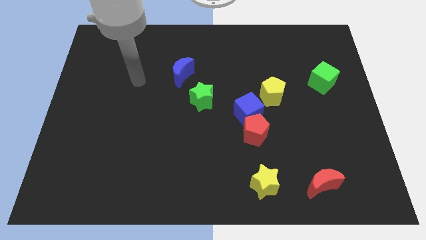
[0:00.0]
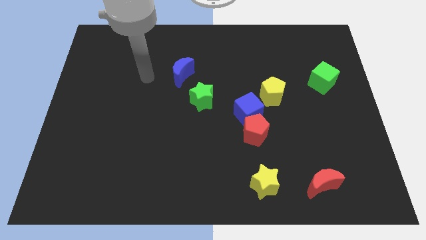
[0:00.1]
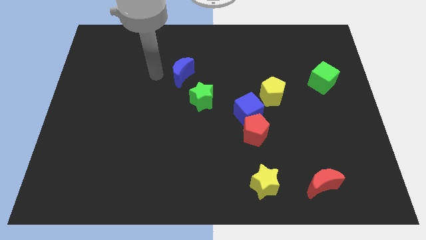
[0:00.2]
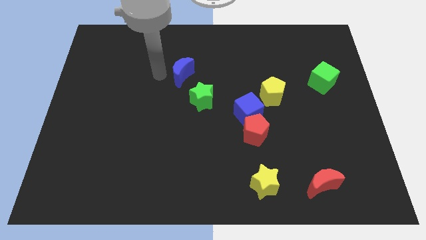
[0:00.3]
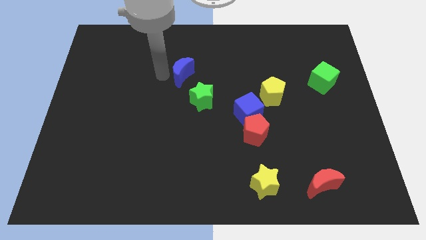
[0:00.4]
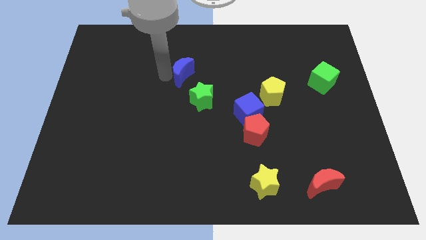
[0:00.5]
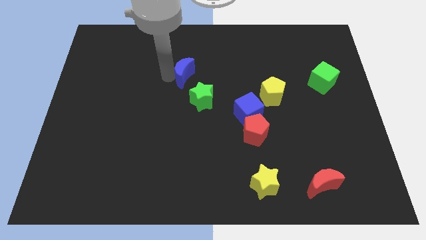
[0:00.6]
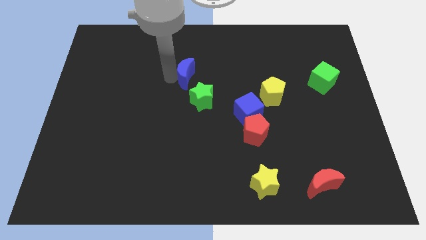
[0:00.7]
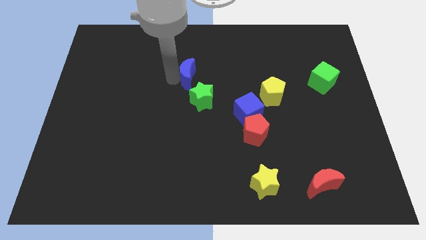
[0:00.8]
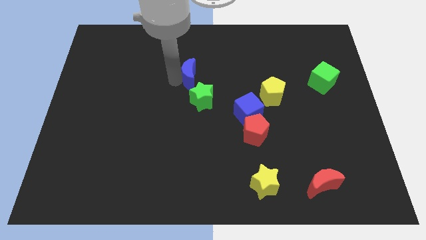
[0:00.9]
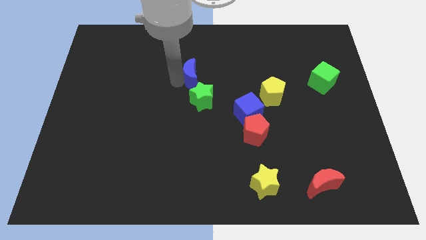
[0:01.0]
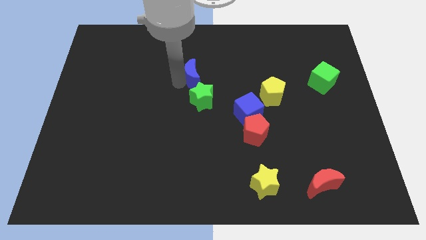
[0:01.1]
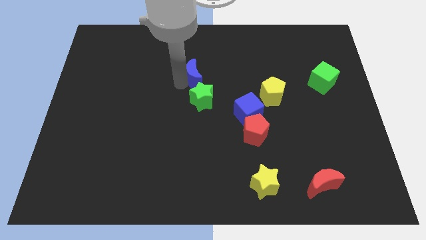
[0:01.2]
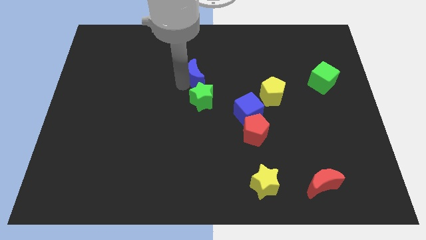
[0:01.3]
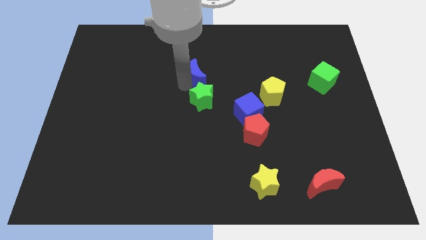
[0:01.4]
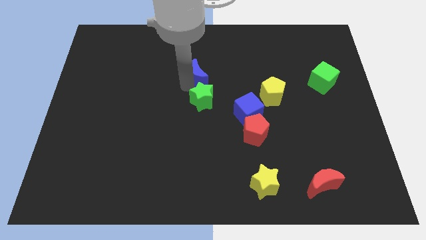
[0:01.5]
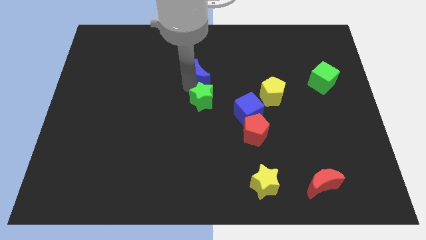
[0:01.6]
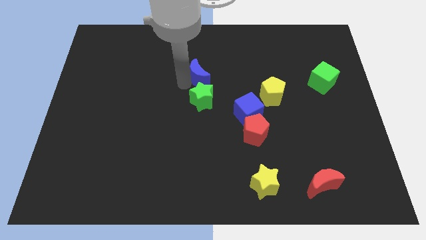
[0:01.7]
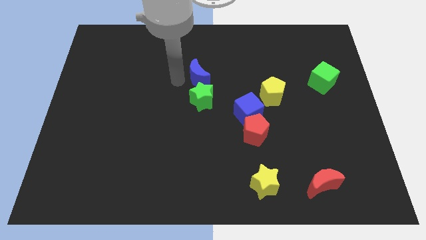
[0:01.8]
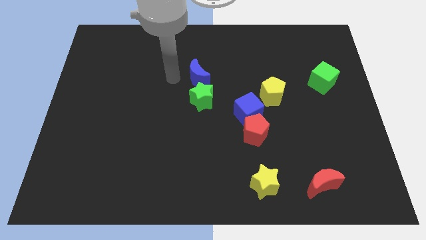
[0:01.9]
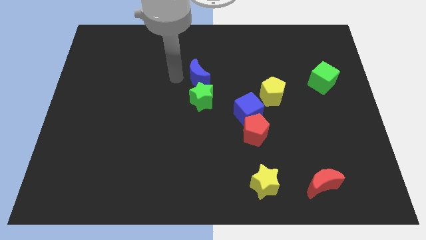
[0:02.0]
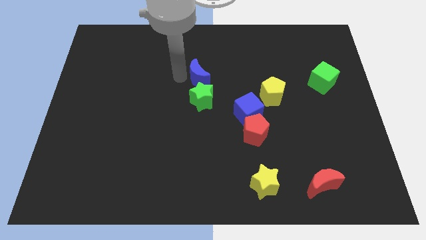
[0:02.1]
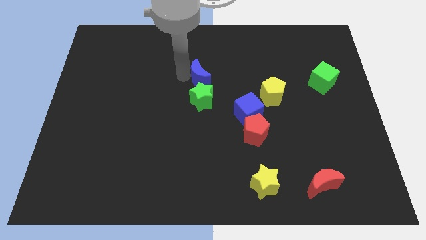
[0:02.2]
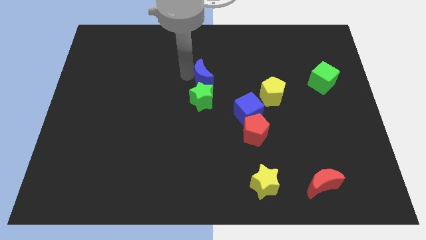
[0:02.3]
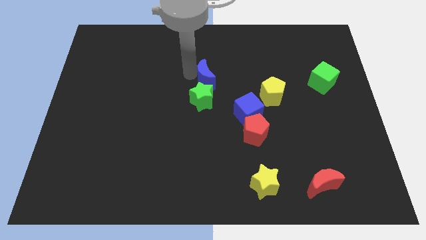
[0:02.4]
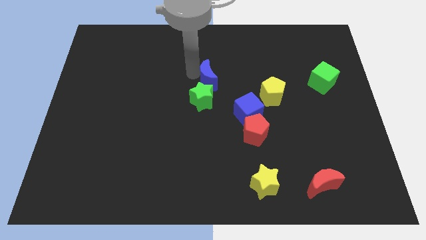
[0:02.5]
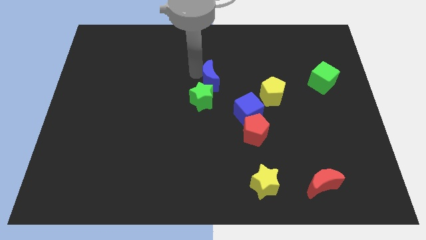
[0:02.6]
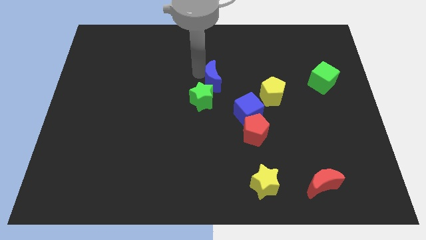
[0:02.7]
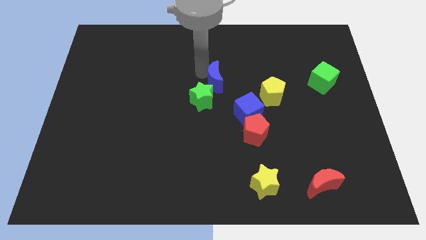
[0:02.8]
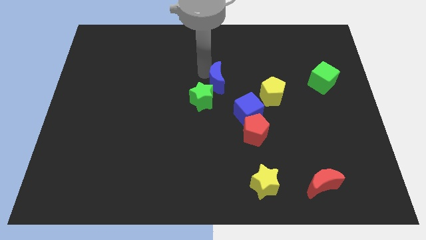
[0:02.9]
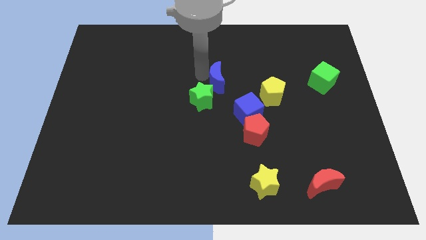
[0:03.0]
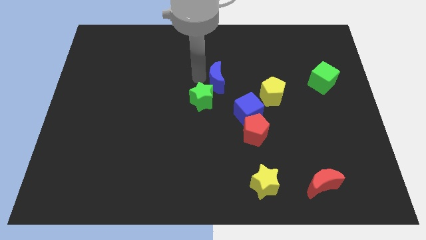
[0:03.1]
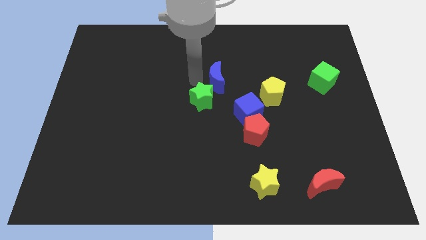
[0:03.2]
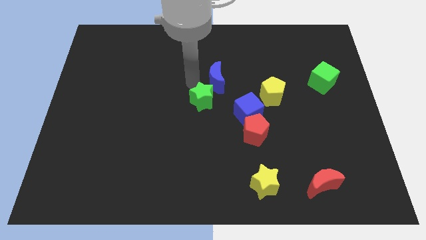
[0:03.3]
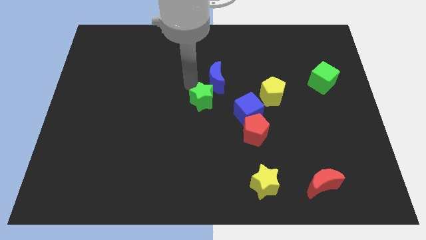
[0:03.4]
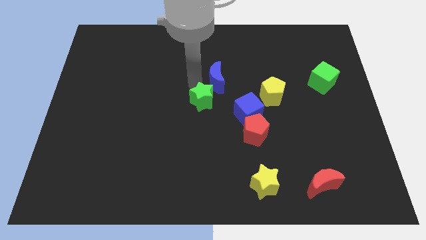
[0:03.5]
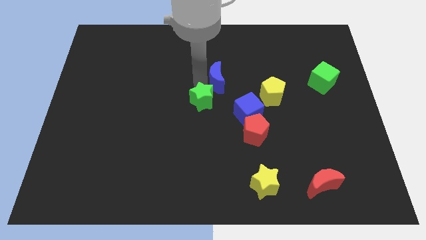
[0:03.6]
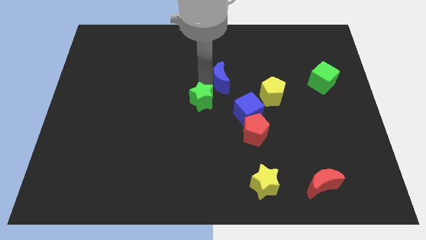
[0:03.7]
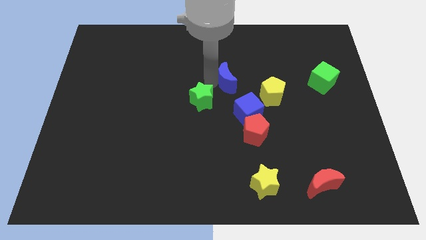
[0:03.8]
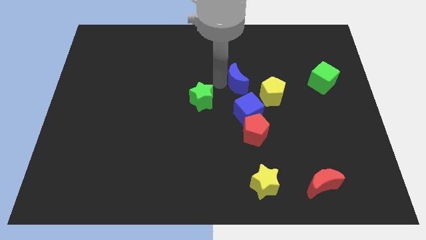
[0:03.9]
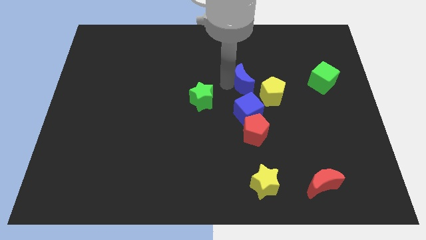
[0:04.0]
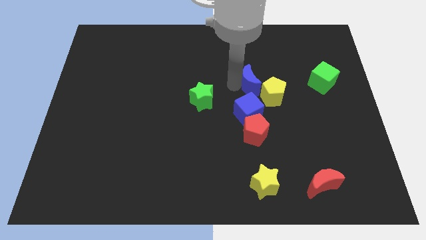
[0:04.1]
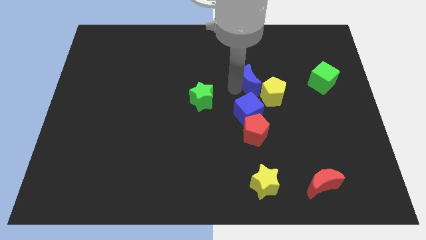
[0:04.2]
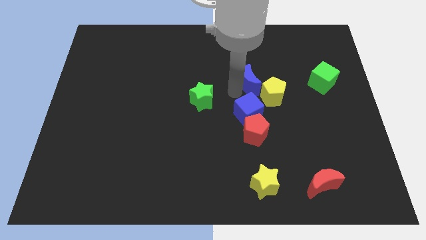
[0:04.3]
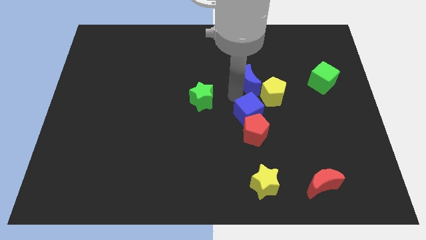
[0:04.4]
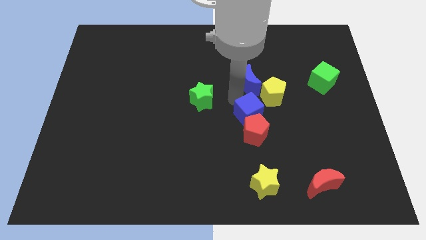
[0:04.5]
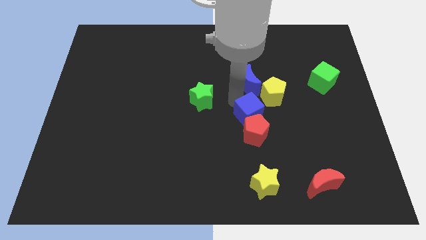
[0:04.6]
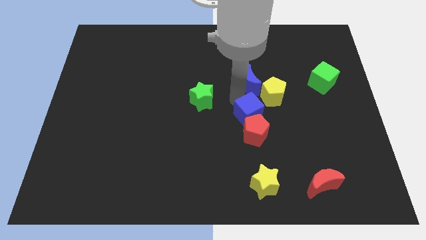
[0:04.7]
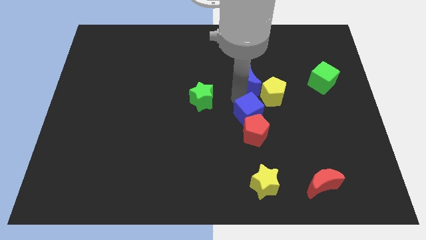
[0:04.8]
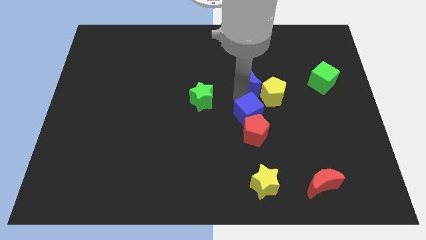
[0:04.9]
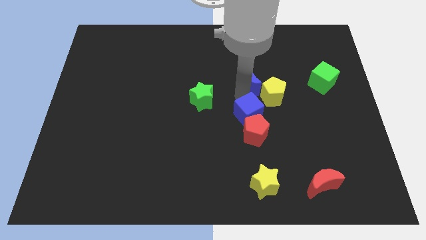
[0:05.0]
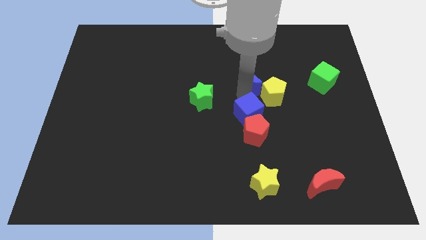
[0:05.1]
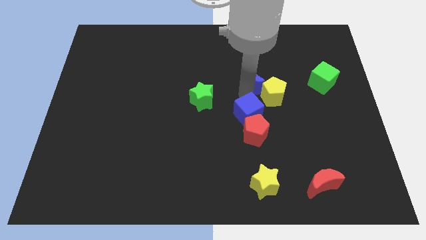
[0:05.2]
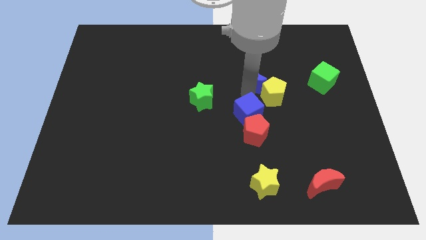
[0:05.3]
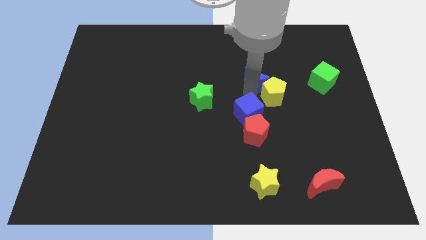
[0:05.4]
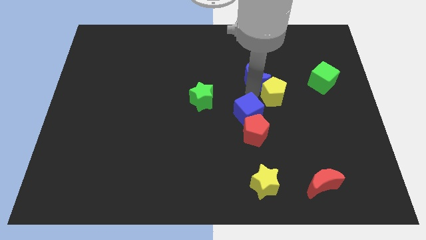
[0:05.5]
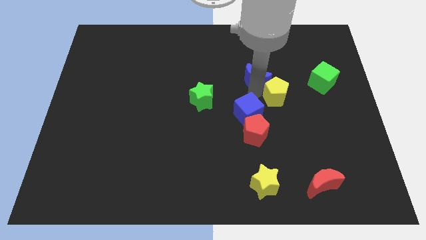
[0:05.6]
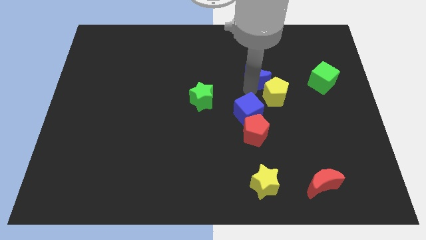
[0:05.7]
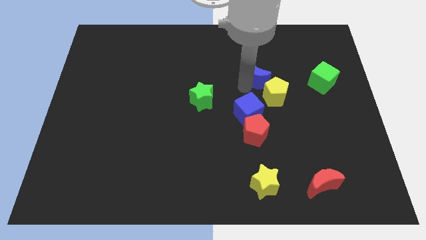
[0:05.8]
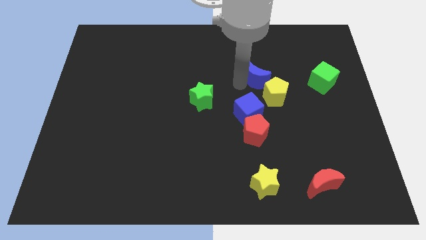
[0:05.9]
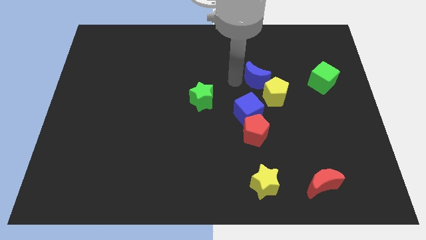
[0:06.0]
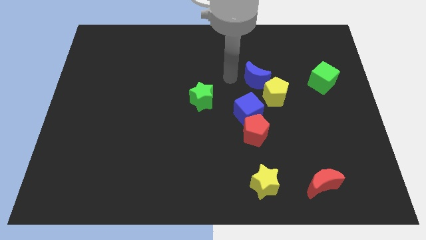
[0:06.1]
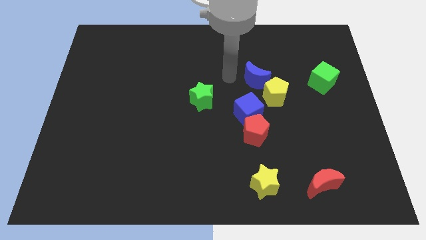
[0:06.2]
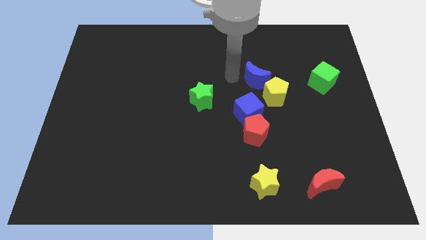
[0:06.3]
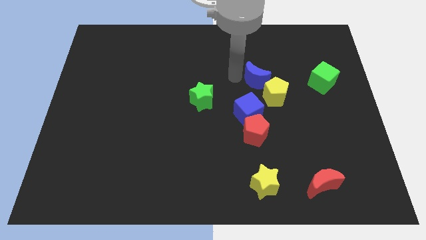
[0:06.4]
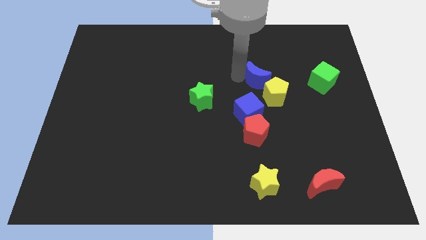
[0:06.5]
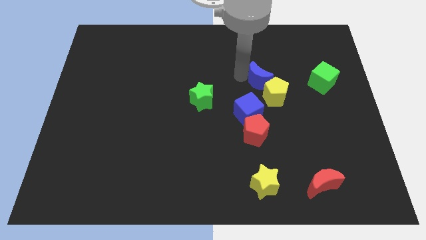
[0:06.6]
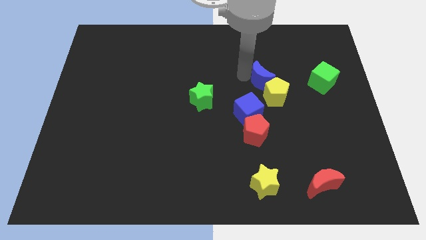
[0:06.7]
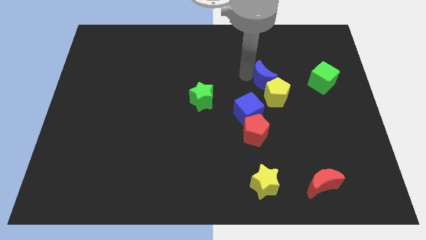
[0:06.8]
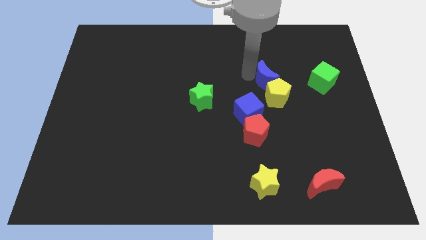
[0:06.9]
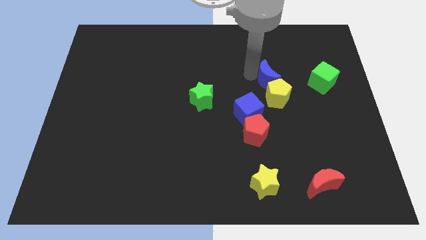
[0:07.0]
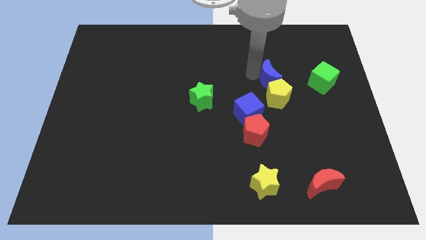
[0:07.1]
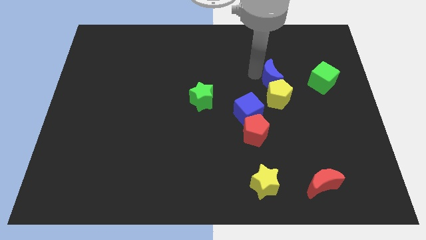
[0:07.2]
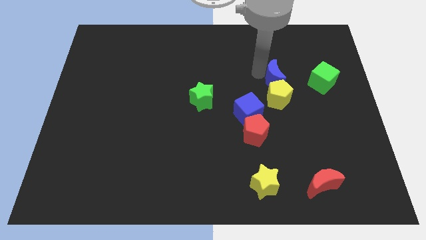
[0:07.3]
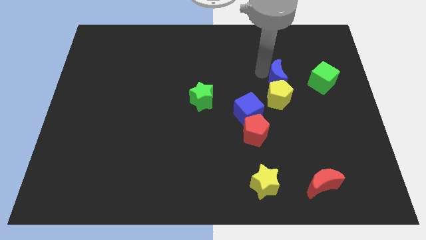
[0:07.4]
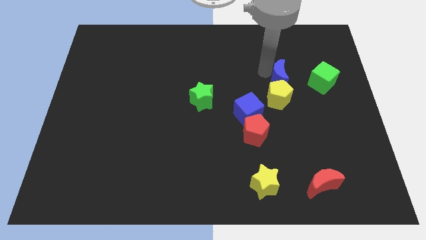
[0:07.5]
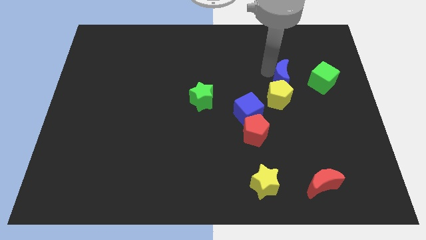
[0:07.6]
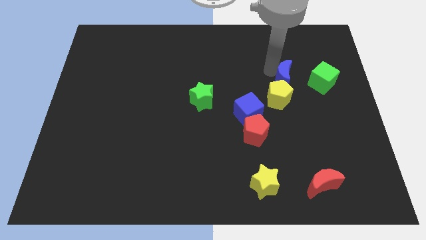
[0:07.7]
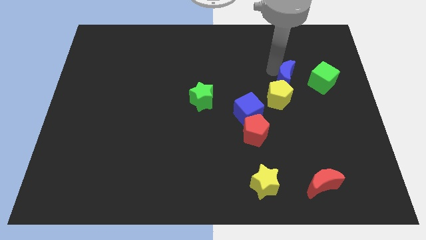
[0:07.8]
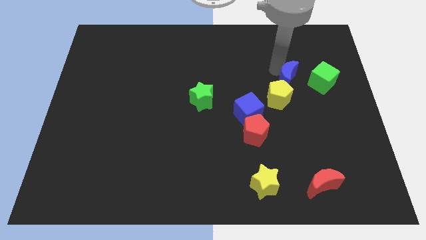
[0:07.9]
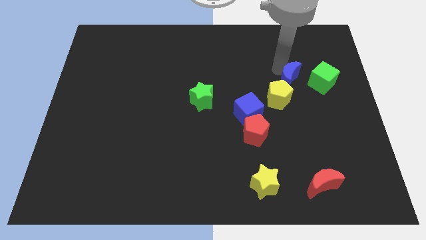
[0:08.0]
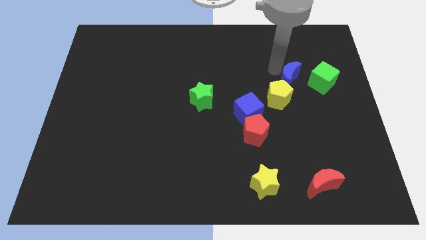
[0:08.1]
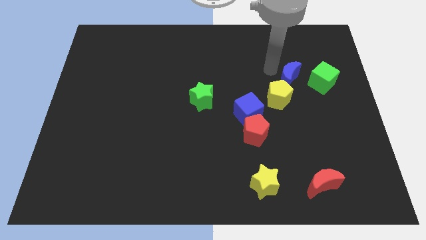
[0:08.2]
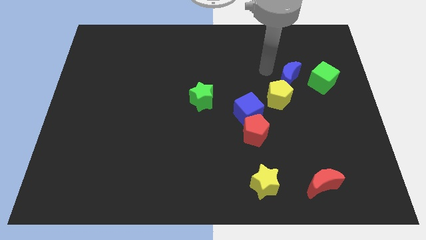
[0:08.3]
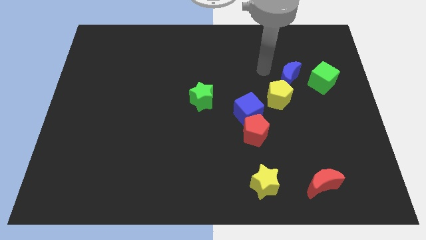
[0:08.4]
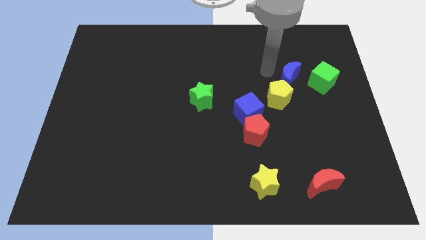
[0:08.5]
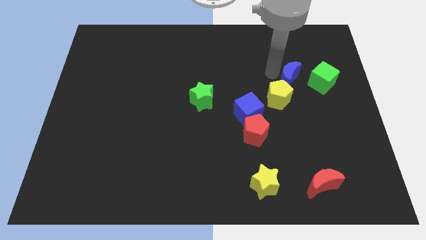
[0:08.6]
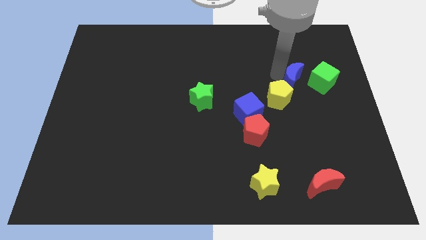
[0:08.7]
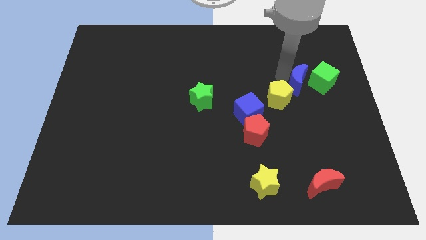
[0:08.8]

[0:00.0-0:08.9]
slide the blue moon right of the yellow pentagon
